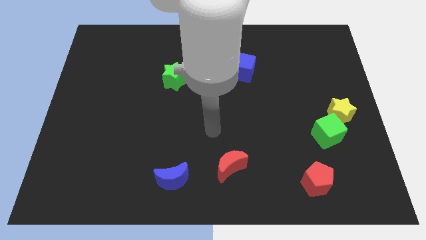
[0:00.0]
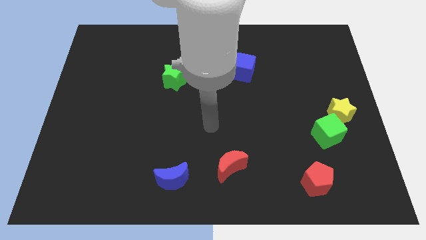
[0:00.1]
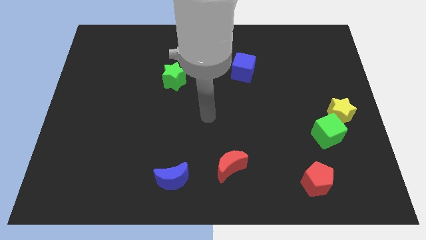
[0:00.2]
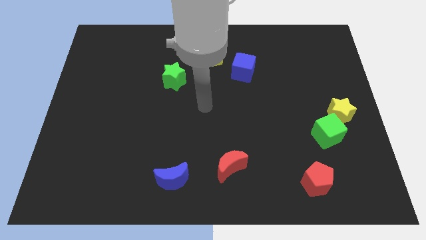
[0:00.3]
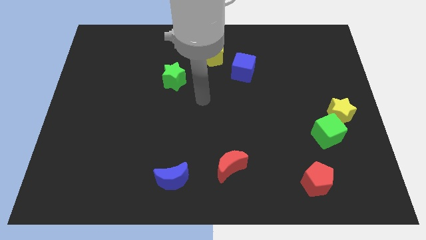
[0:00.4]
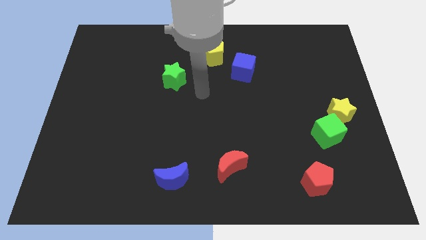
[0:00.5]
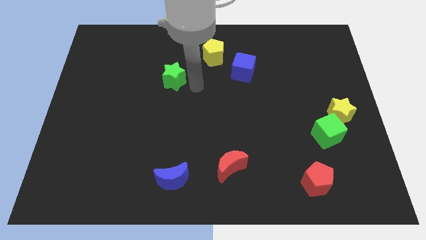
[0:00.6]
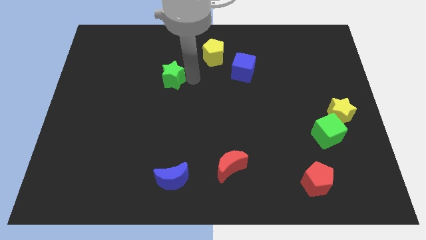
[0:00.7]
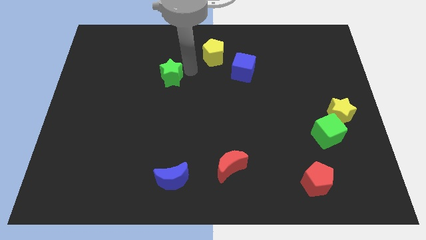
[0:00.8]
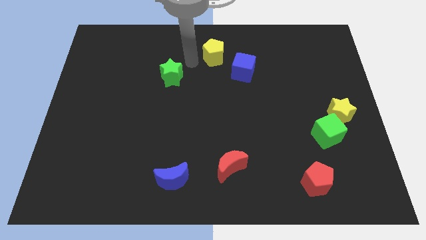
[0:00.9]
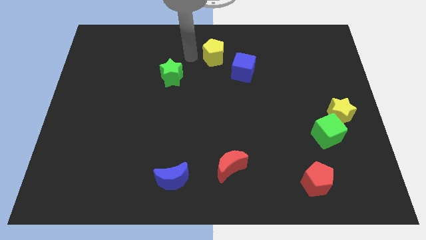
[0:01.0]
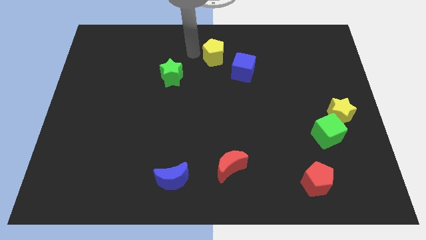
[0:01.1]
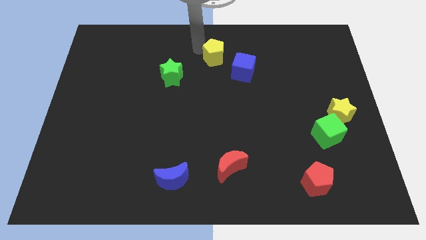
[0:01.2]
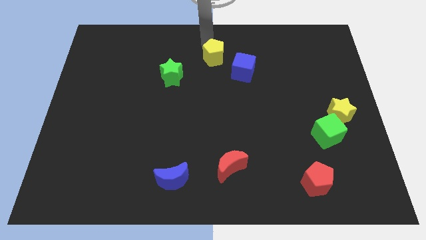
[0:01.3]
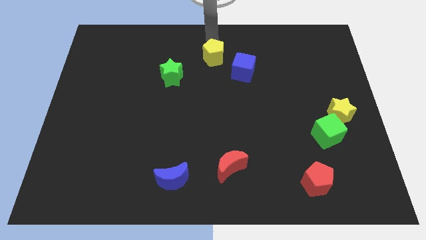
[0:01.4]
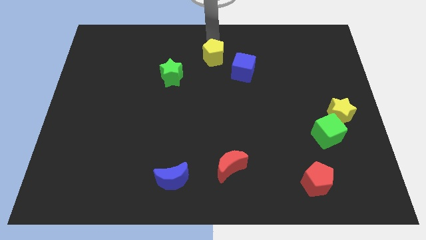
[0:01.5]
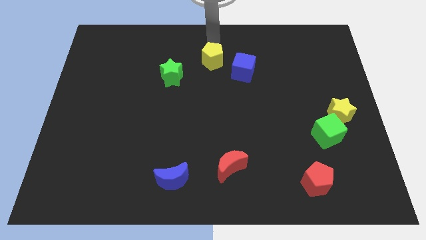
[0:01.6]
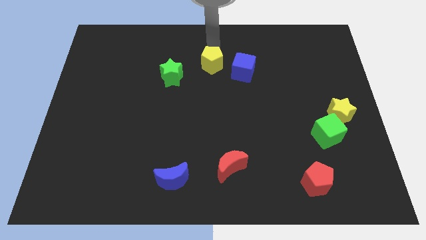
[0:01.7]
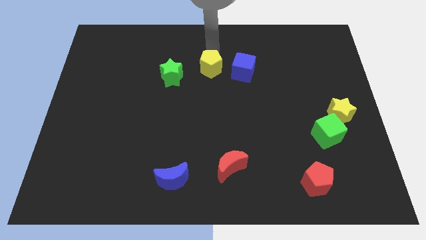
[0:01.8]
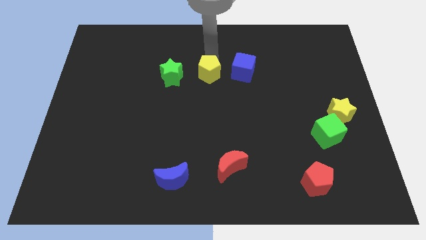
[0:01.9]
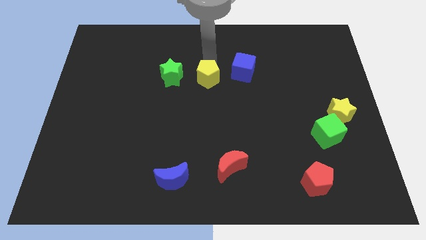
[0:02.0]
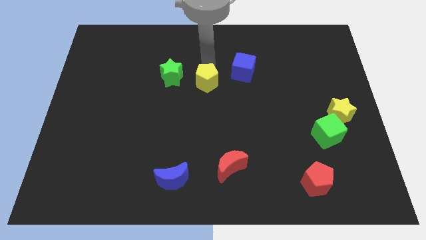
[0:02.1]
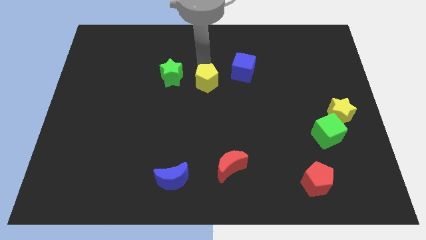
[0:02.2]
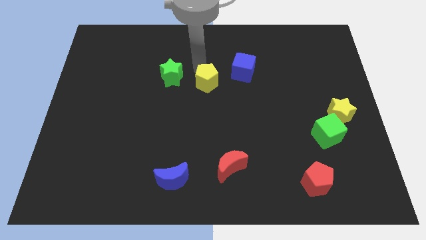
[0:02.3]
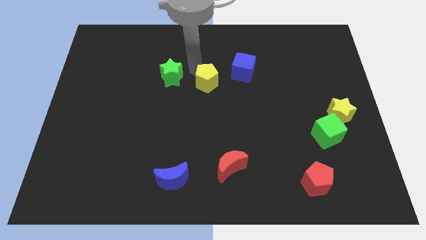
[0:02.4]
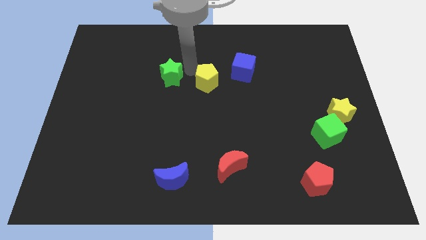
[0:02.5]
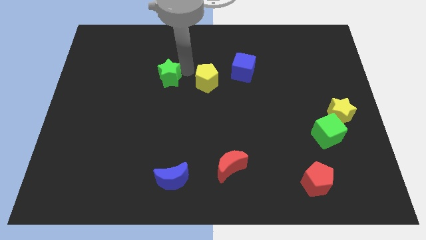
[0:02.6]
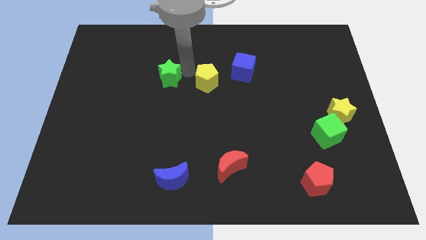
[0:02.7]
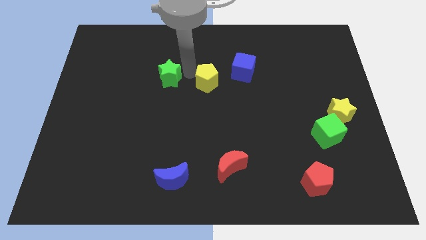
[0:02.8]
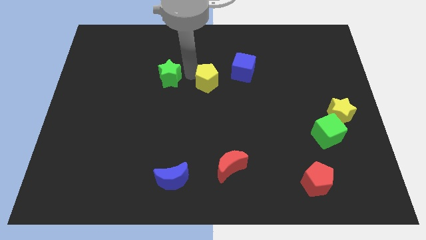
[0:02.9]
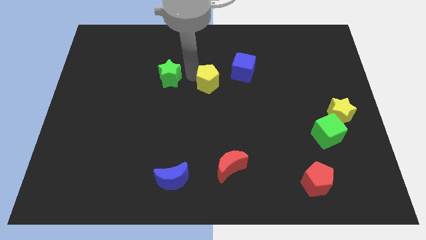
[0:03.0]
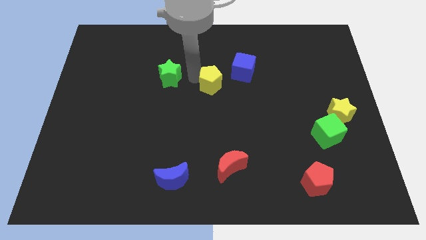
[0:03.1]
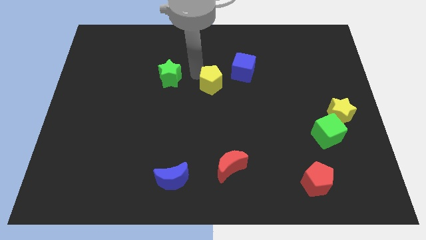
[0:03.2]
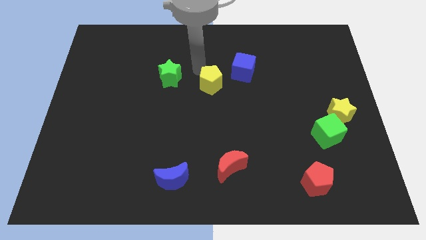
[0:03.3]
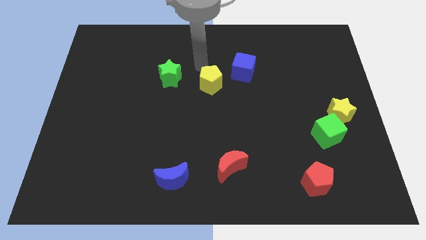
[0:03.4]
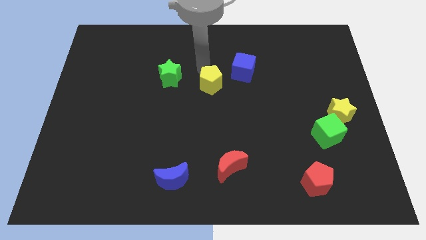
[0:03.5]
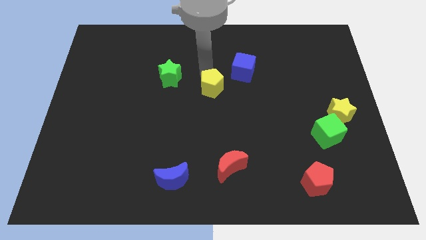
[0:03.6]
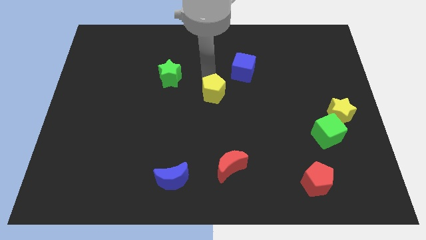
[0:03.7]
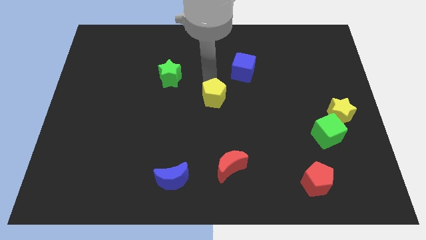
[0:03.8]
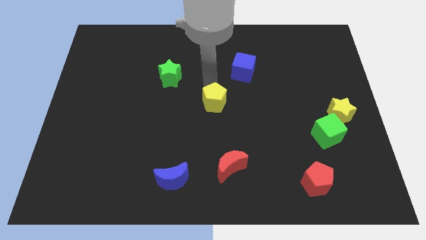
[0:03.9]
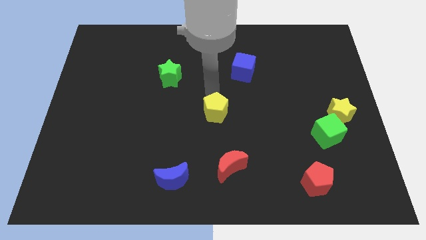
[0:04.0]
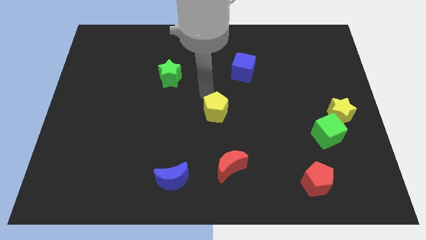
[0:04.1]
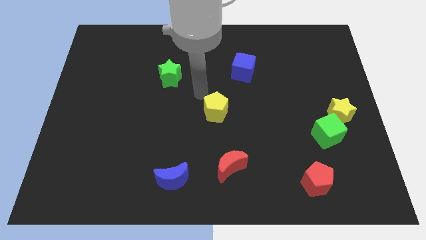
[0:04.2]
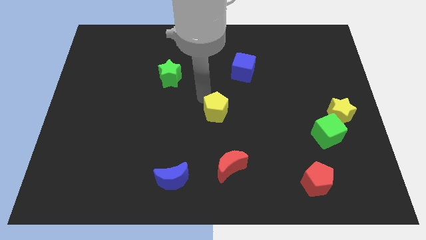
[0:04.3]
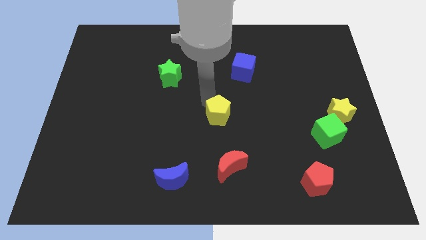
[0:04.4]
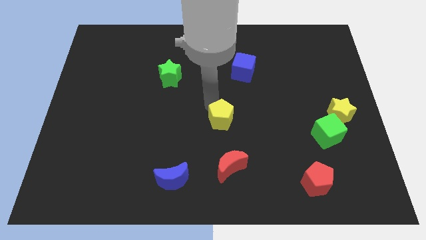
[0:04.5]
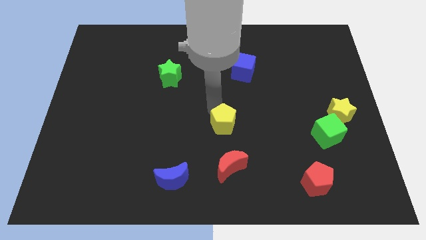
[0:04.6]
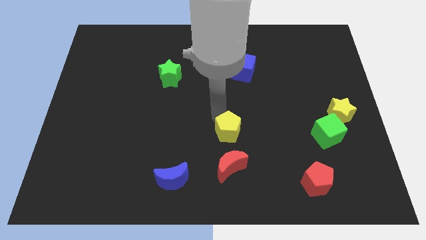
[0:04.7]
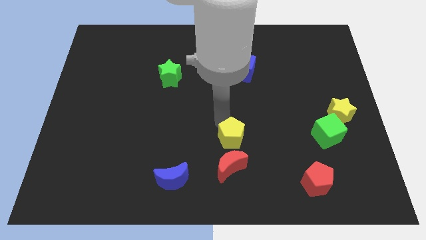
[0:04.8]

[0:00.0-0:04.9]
push the yellow pentagon to the top right of the red moon

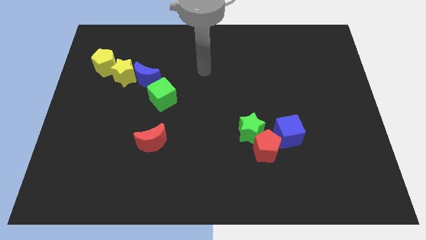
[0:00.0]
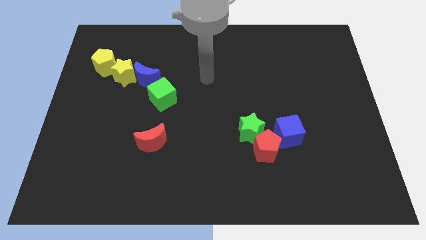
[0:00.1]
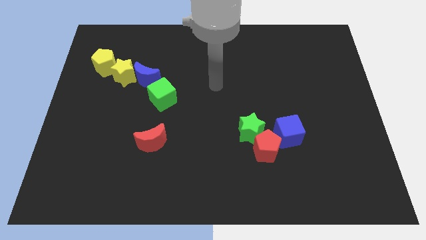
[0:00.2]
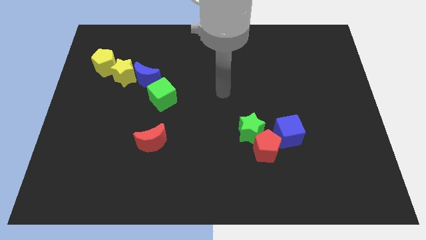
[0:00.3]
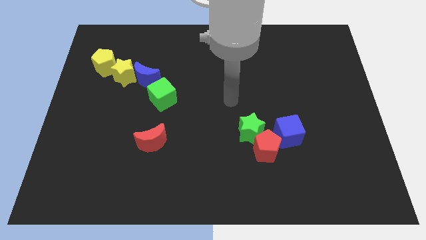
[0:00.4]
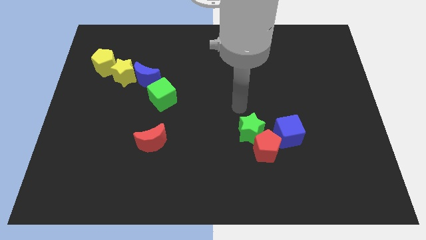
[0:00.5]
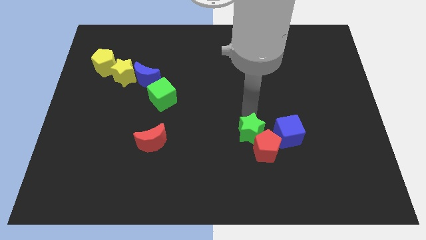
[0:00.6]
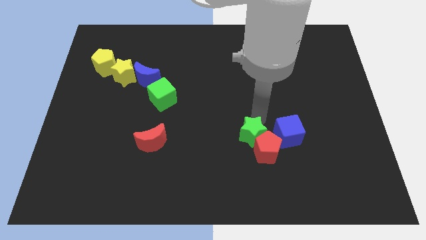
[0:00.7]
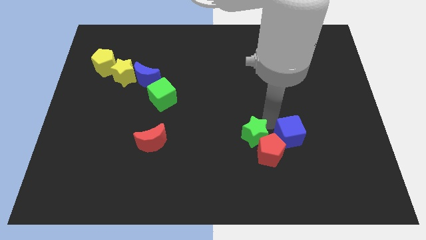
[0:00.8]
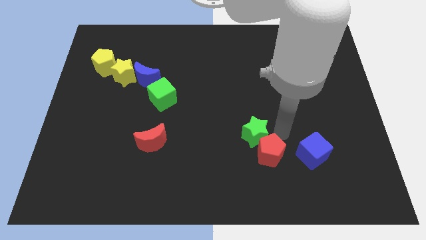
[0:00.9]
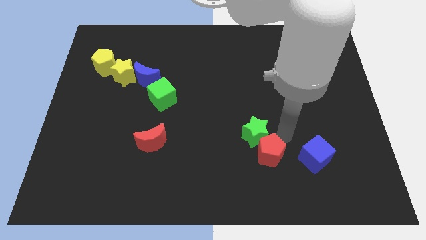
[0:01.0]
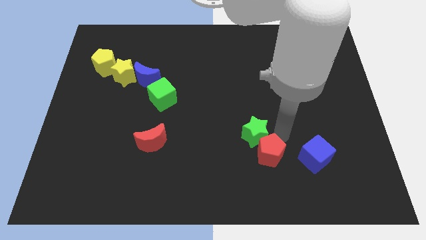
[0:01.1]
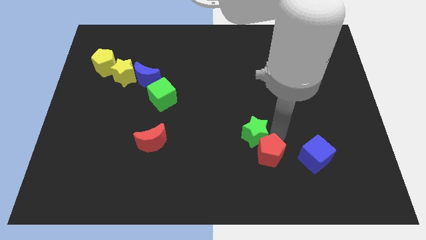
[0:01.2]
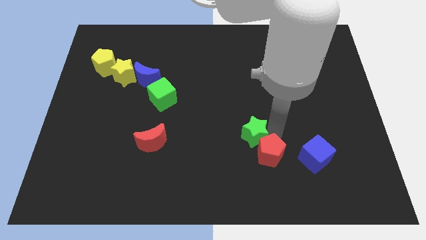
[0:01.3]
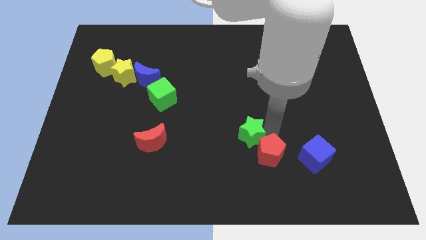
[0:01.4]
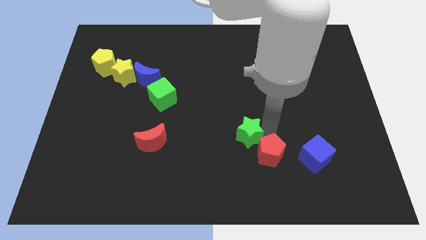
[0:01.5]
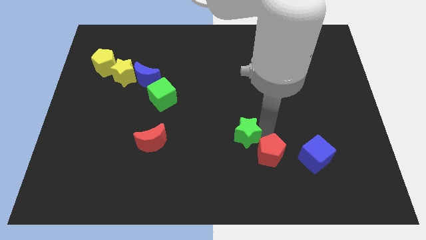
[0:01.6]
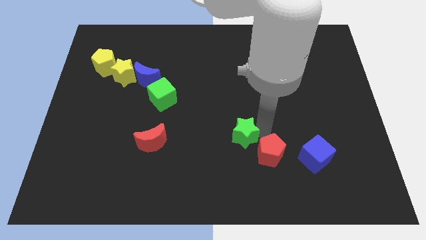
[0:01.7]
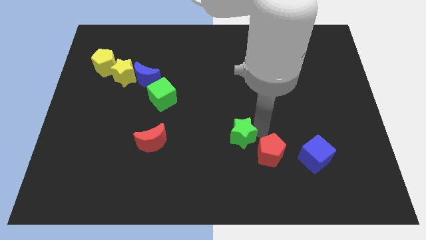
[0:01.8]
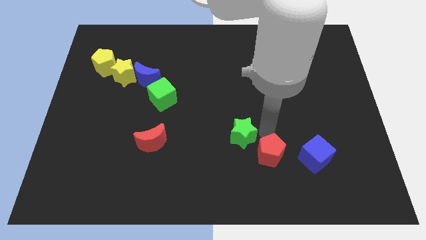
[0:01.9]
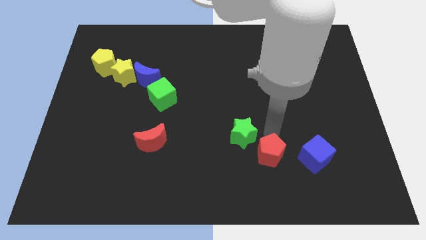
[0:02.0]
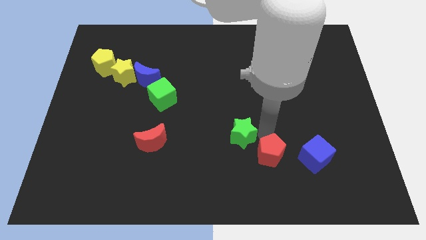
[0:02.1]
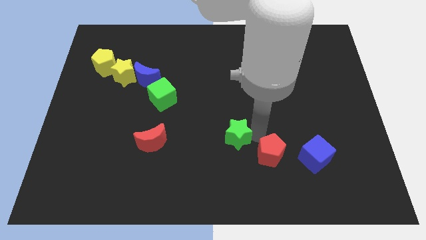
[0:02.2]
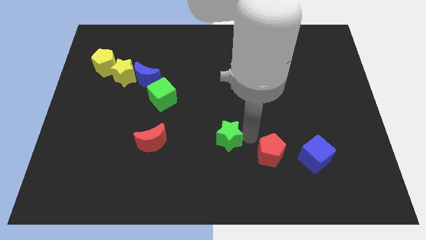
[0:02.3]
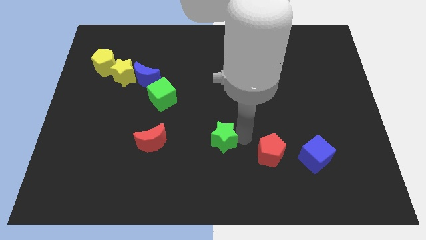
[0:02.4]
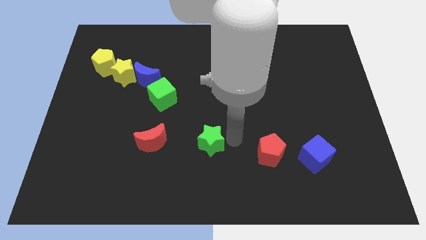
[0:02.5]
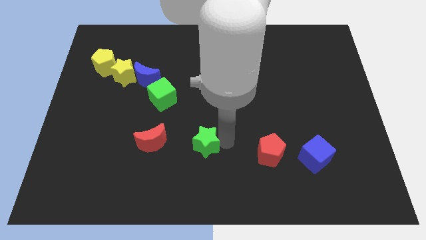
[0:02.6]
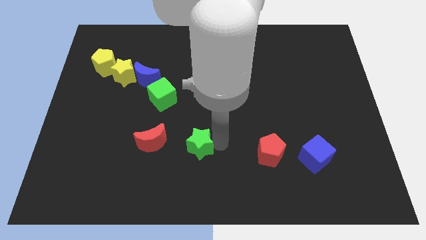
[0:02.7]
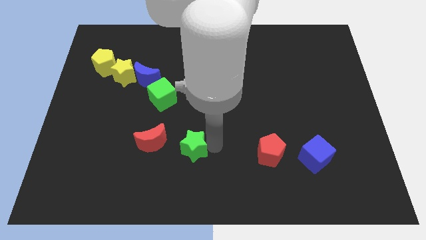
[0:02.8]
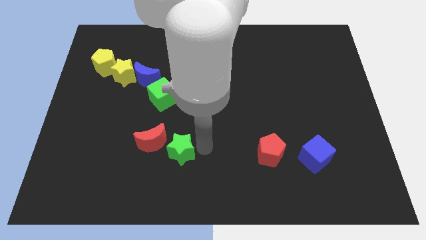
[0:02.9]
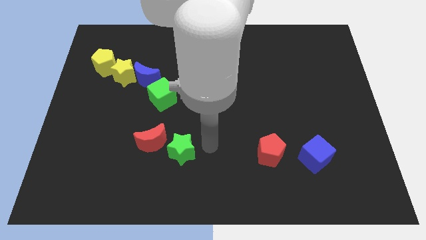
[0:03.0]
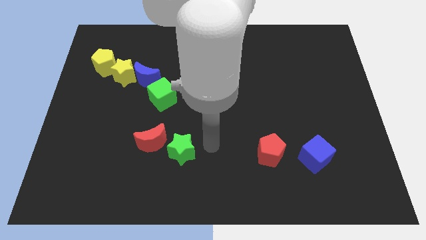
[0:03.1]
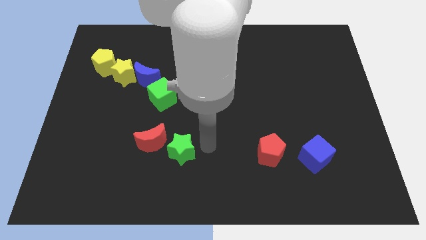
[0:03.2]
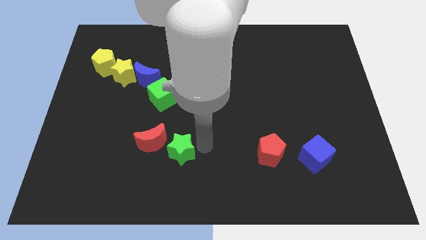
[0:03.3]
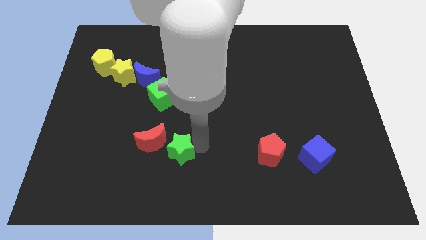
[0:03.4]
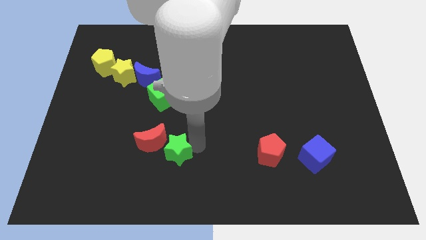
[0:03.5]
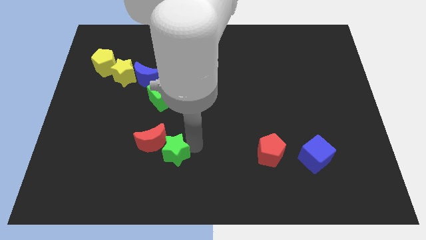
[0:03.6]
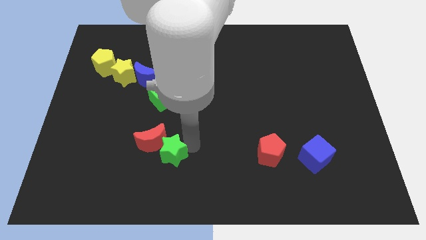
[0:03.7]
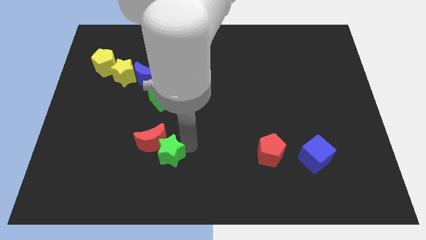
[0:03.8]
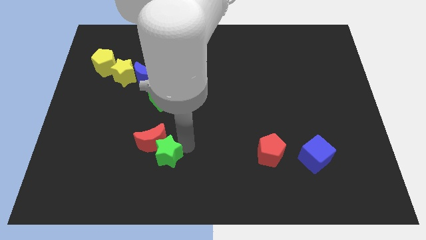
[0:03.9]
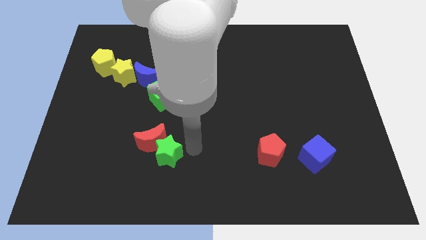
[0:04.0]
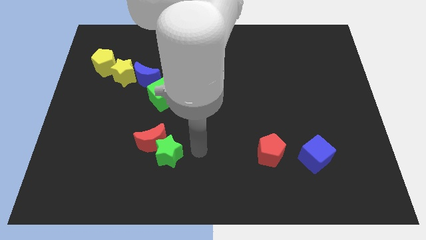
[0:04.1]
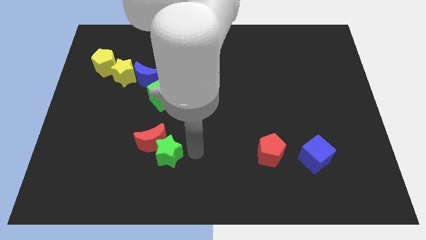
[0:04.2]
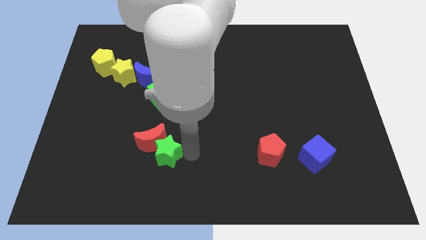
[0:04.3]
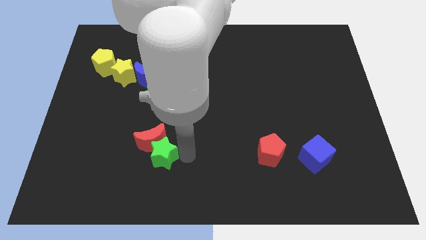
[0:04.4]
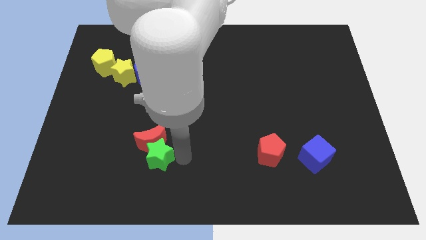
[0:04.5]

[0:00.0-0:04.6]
slide the green star diagonally down and to the left of the red moon
